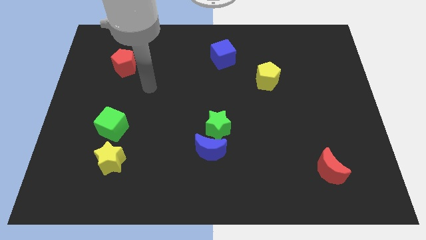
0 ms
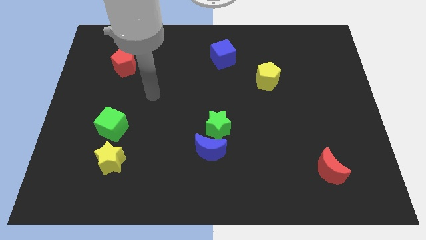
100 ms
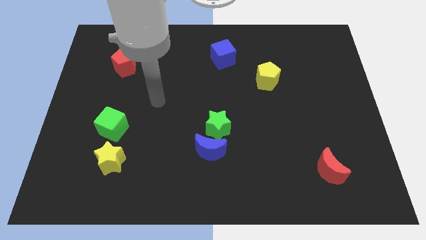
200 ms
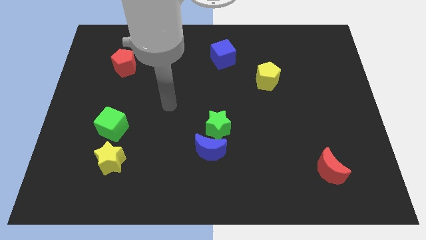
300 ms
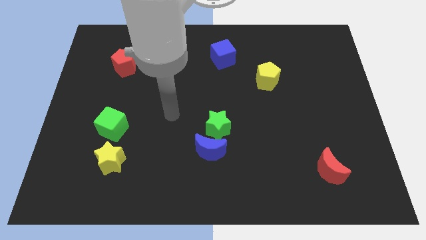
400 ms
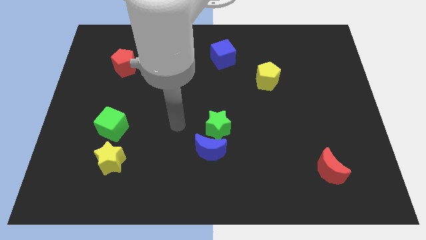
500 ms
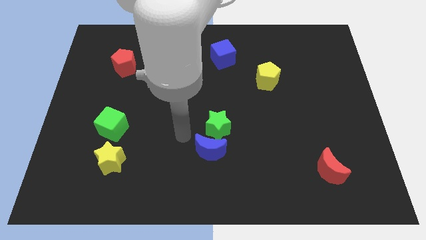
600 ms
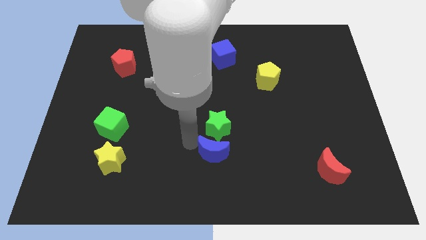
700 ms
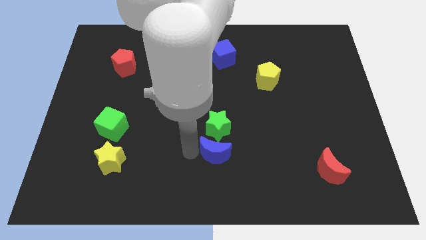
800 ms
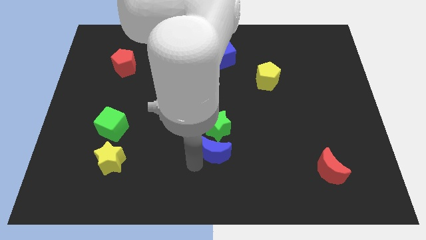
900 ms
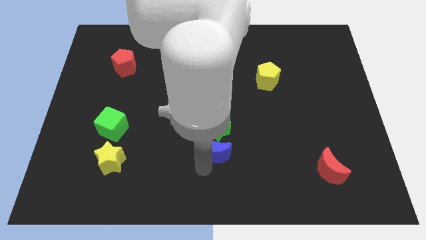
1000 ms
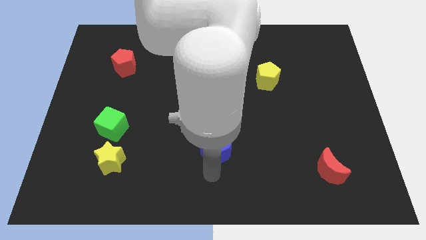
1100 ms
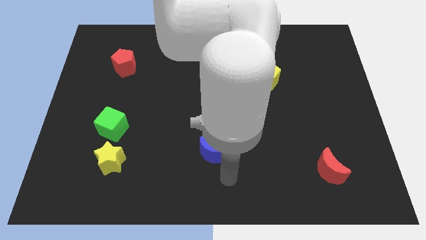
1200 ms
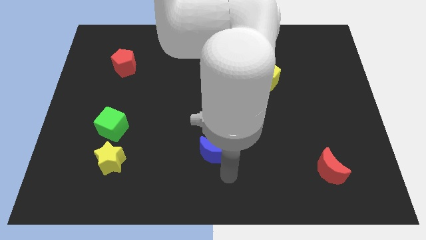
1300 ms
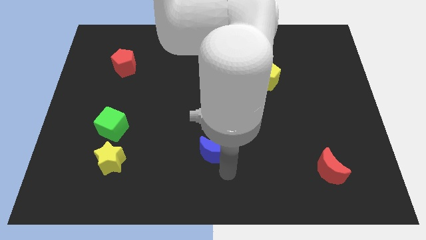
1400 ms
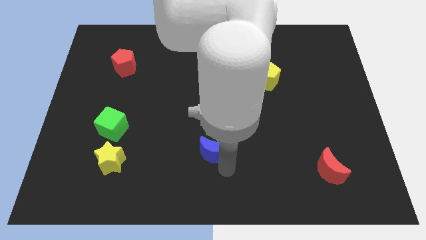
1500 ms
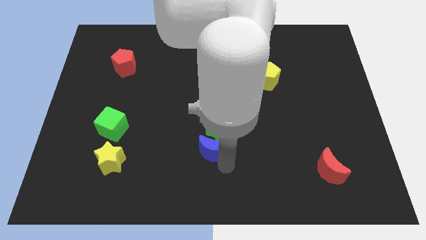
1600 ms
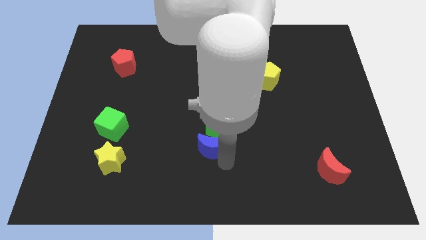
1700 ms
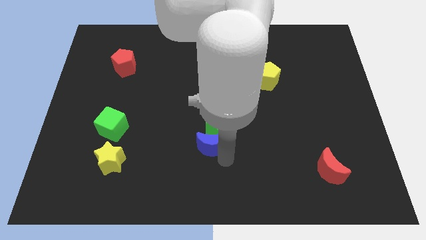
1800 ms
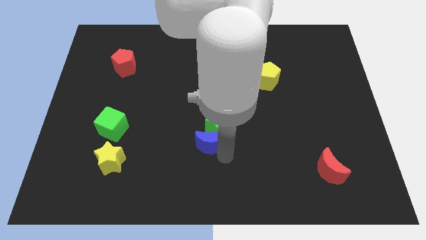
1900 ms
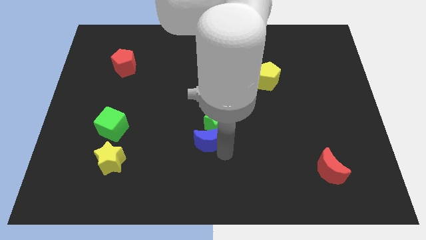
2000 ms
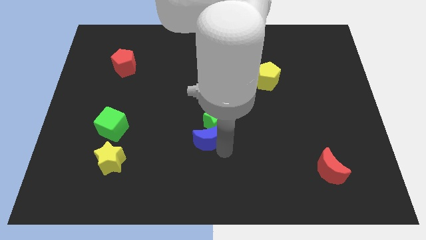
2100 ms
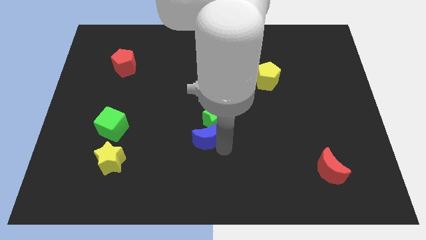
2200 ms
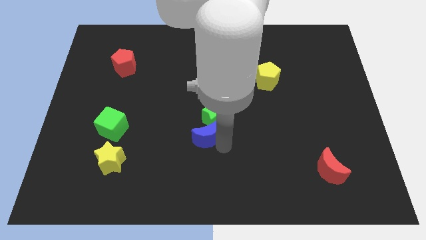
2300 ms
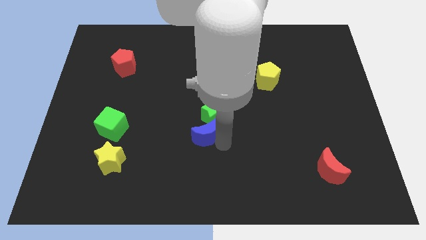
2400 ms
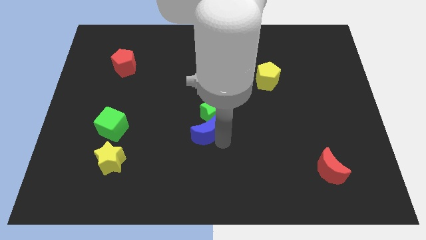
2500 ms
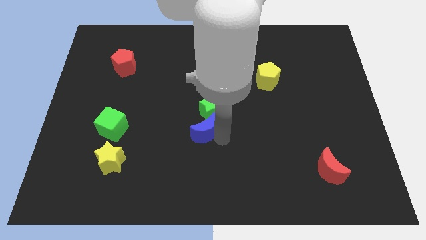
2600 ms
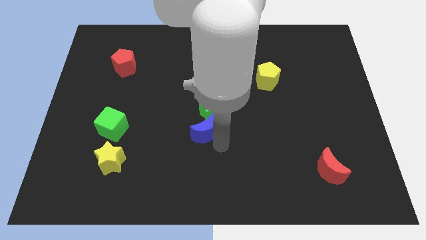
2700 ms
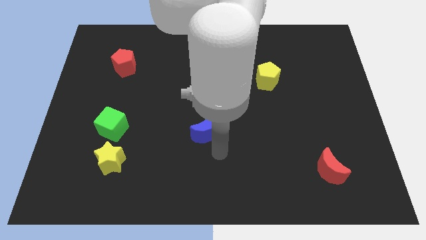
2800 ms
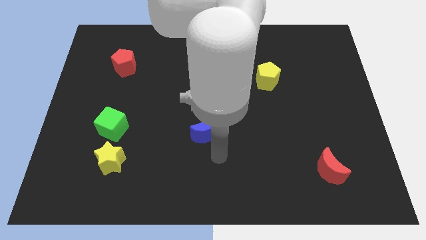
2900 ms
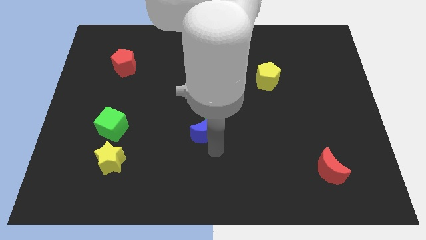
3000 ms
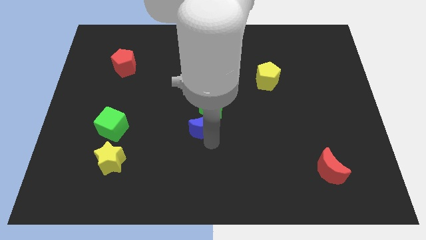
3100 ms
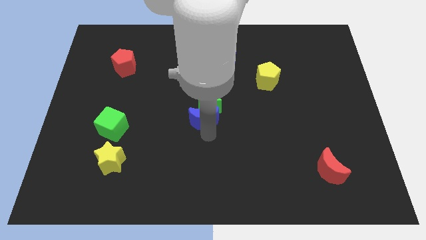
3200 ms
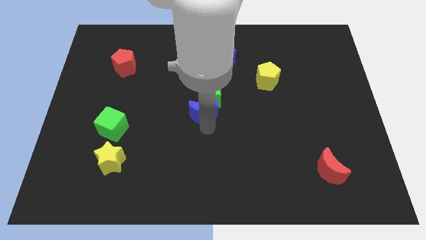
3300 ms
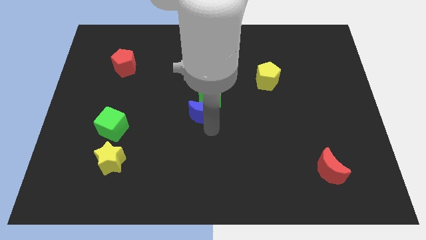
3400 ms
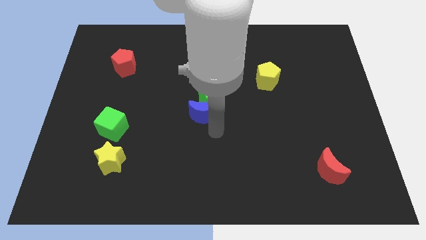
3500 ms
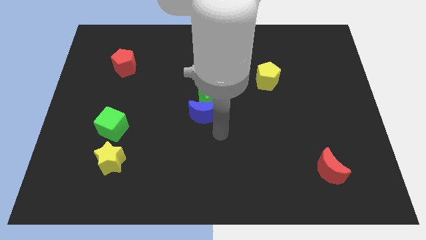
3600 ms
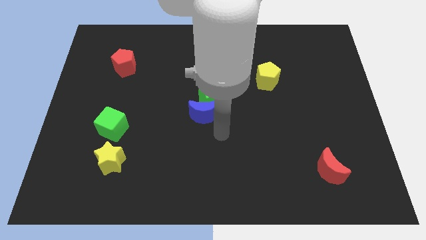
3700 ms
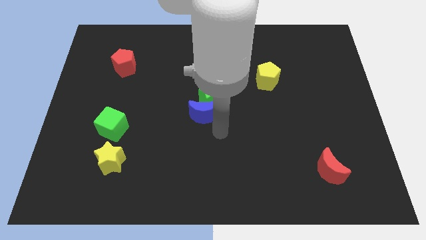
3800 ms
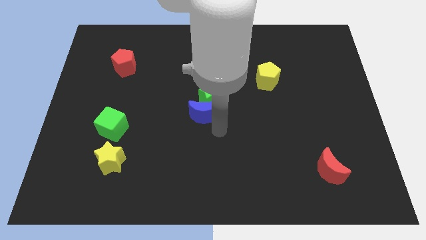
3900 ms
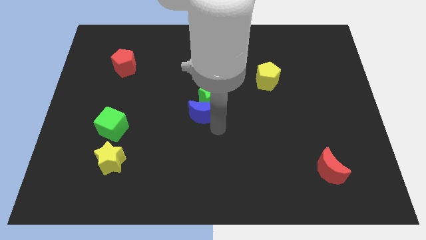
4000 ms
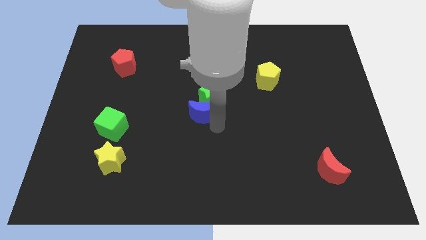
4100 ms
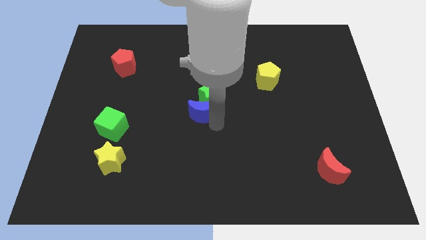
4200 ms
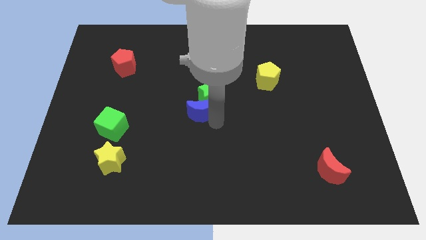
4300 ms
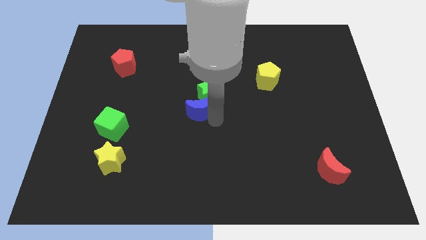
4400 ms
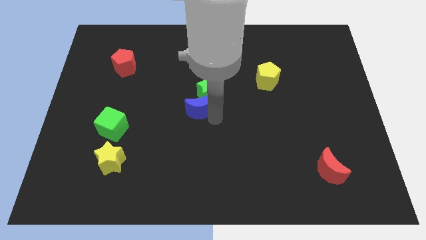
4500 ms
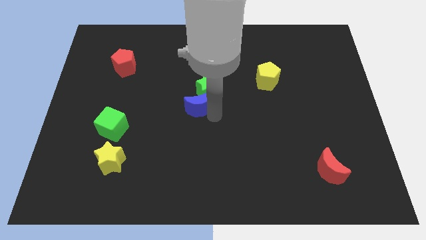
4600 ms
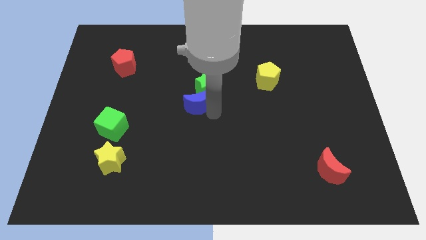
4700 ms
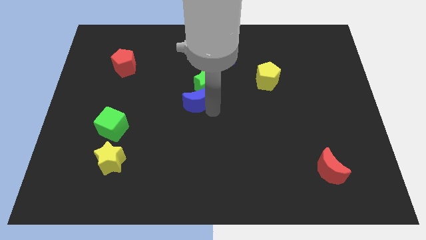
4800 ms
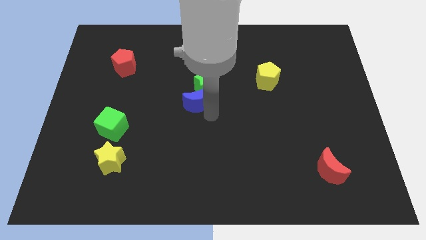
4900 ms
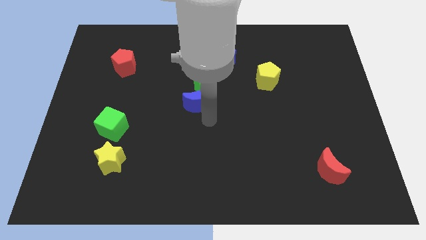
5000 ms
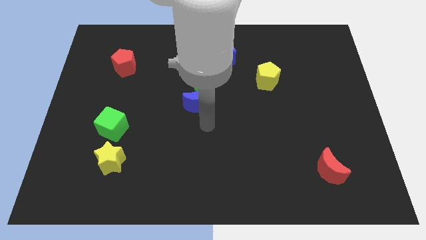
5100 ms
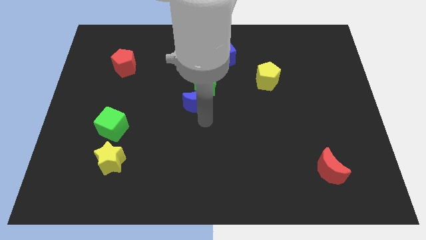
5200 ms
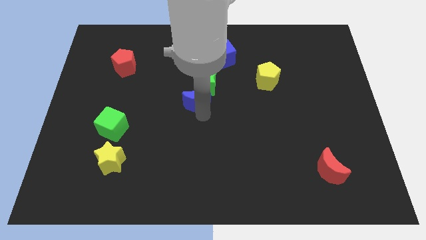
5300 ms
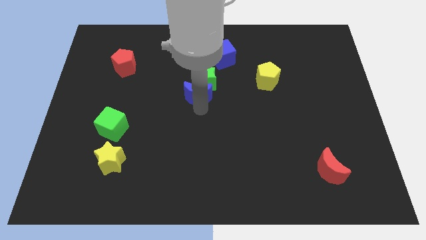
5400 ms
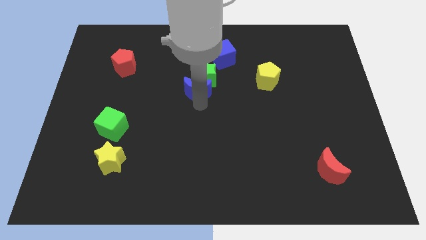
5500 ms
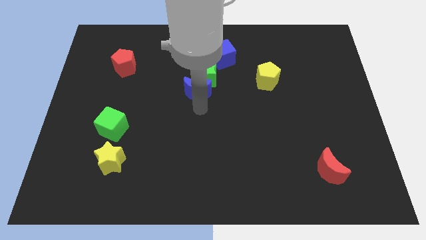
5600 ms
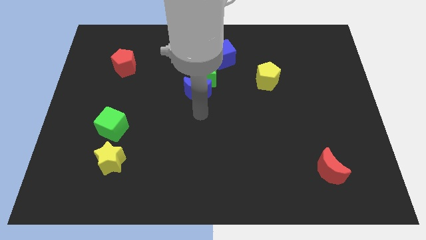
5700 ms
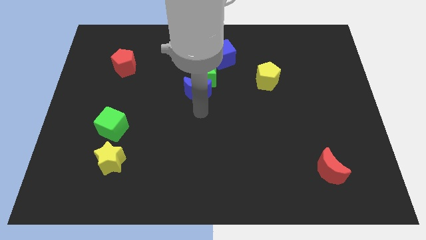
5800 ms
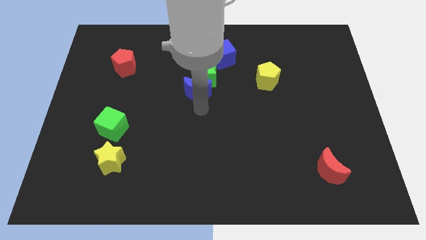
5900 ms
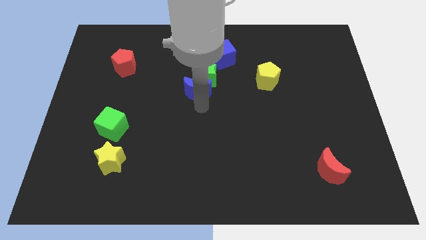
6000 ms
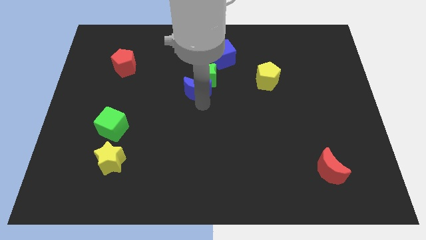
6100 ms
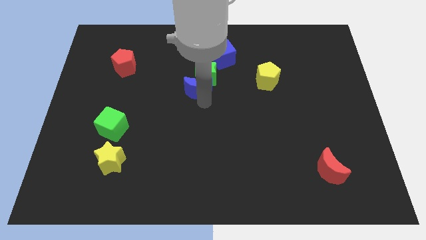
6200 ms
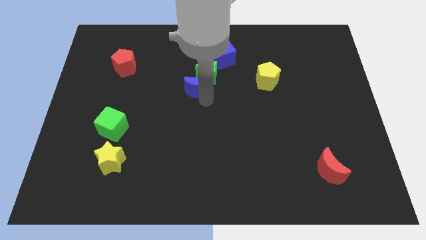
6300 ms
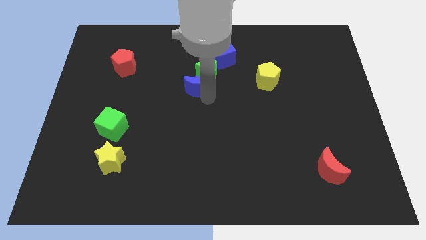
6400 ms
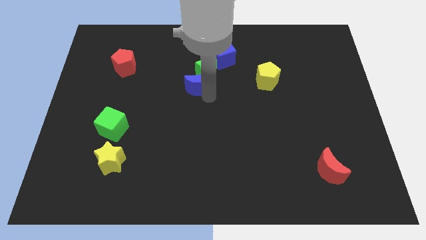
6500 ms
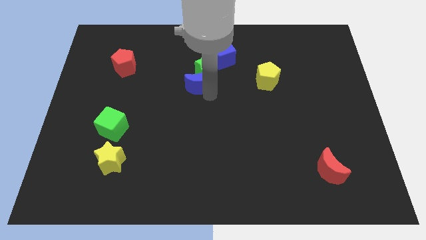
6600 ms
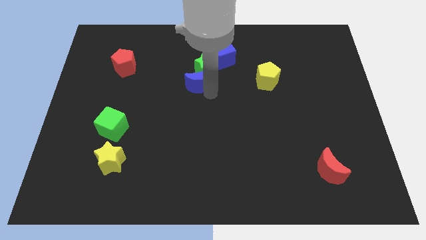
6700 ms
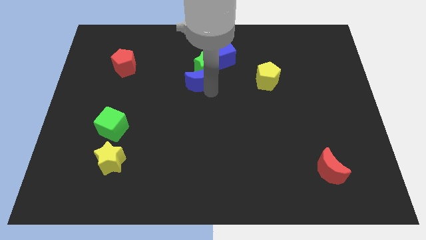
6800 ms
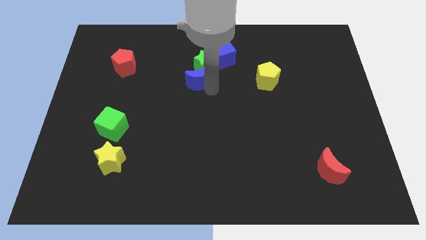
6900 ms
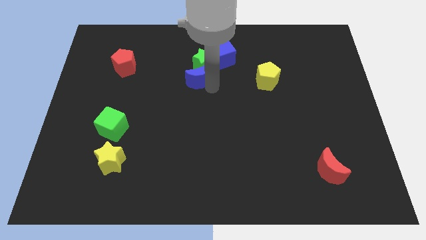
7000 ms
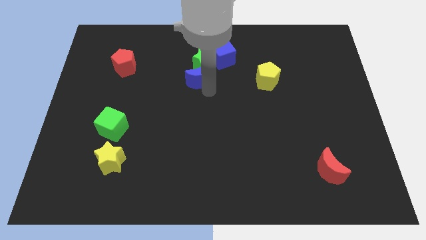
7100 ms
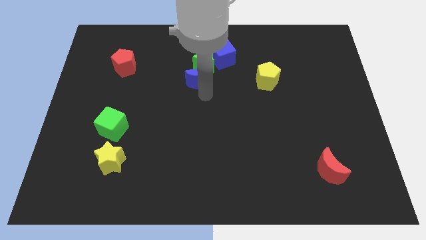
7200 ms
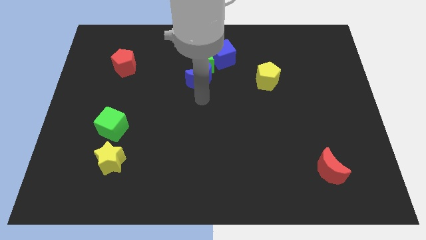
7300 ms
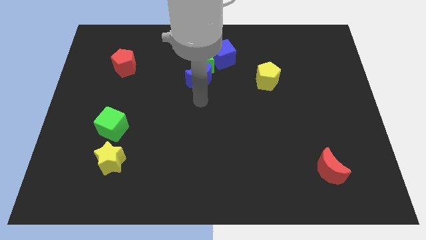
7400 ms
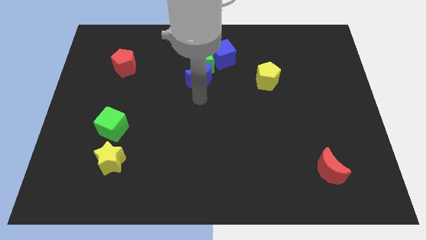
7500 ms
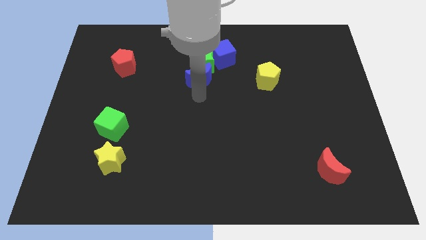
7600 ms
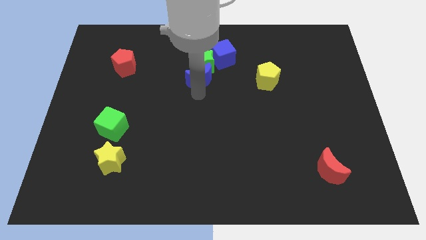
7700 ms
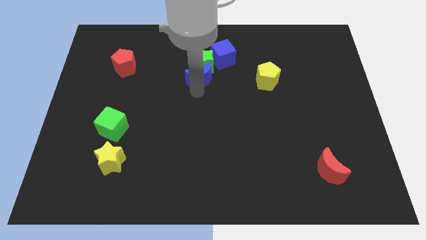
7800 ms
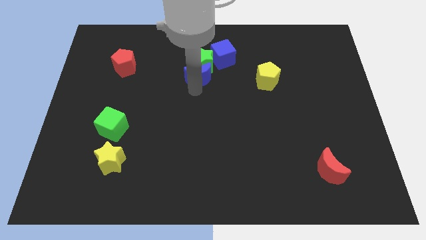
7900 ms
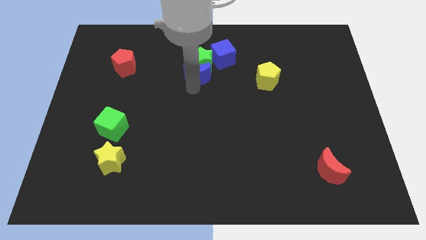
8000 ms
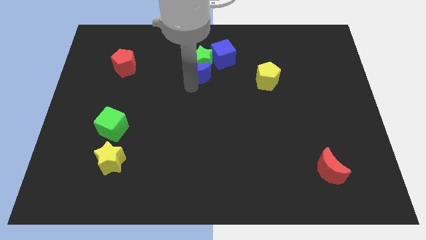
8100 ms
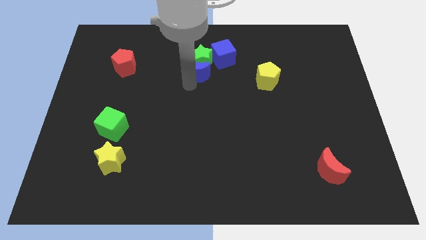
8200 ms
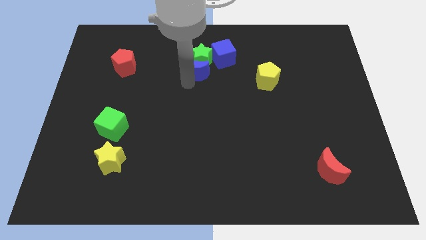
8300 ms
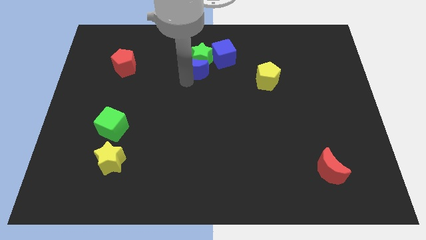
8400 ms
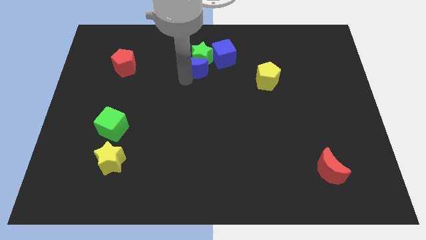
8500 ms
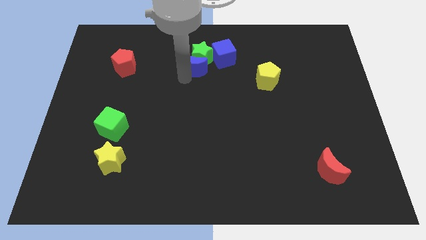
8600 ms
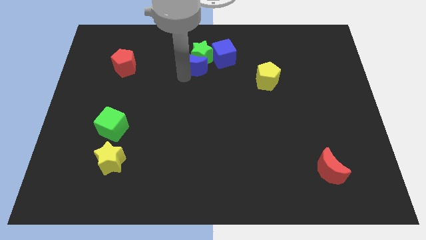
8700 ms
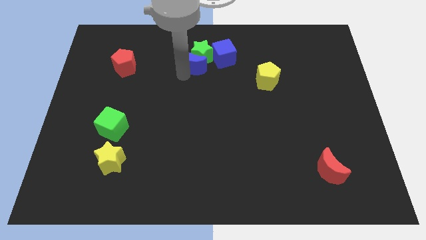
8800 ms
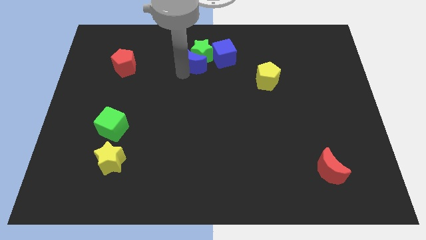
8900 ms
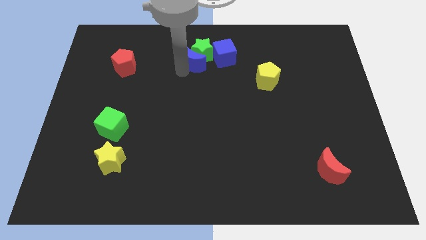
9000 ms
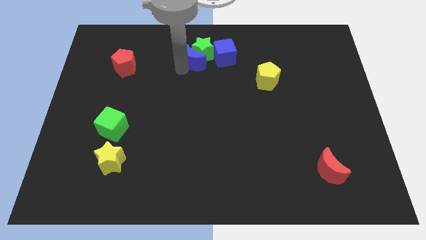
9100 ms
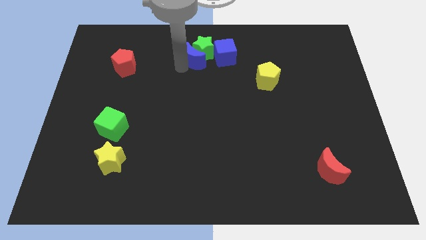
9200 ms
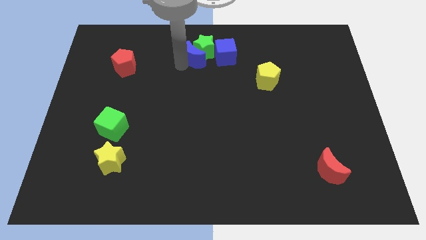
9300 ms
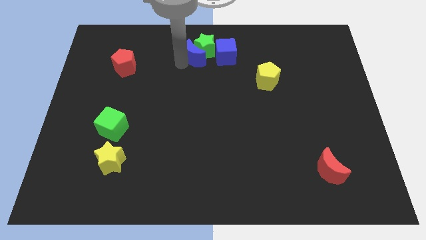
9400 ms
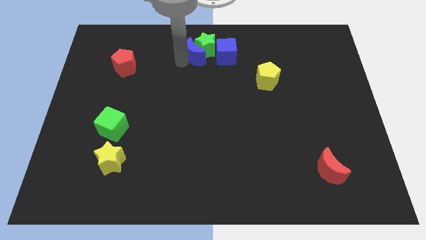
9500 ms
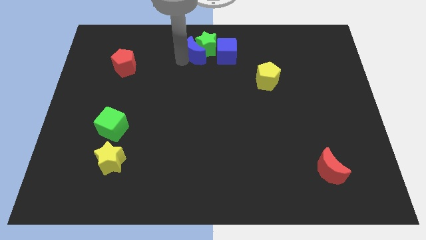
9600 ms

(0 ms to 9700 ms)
slide the blue moon to the top
